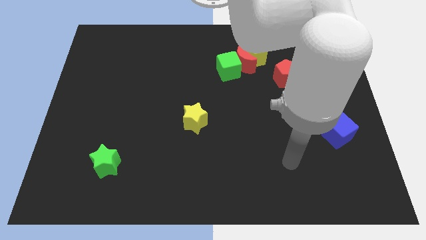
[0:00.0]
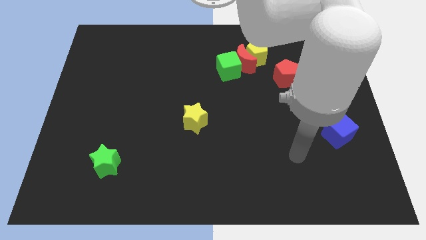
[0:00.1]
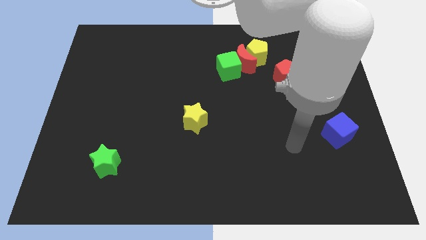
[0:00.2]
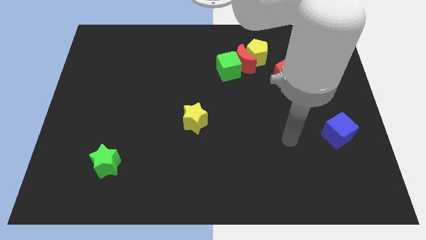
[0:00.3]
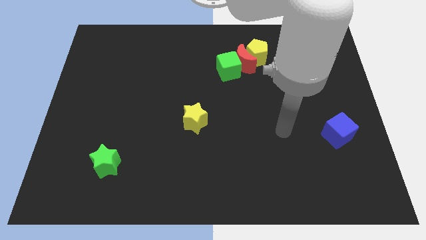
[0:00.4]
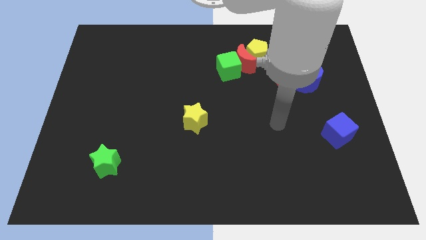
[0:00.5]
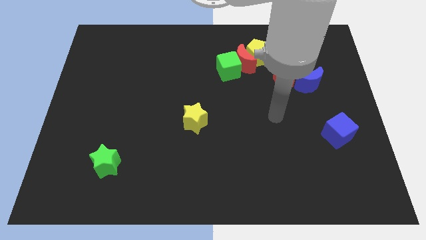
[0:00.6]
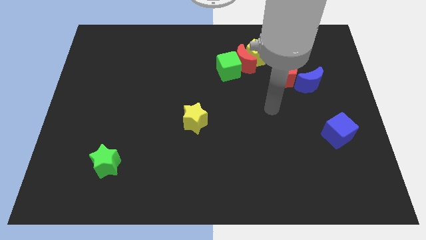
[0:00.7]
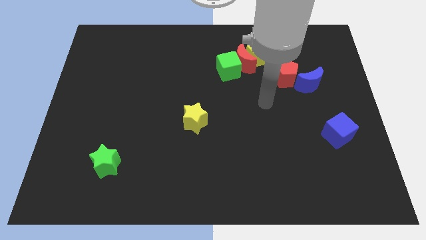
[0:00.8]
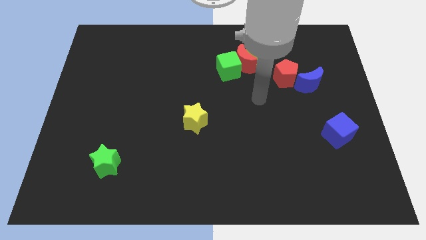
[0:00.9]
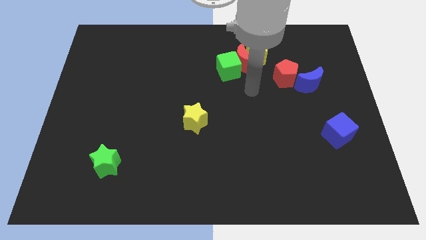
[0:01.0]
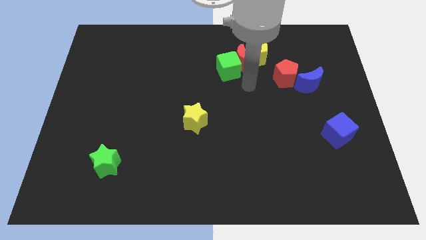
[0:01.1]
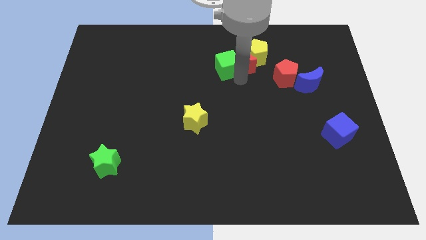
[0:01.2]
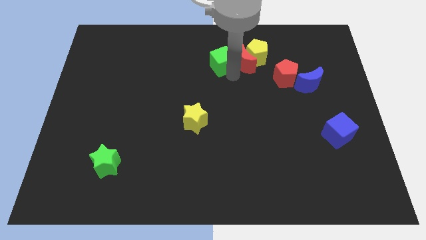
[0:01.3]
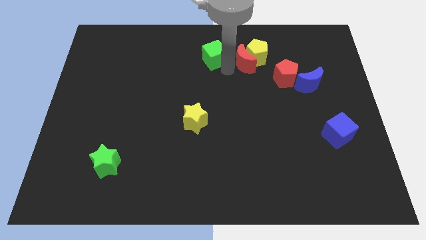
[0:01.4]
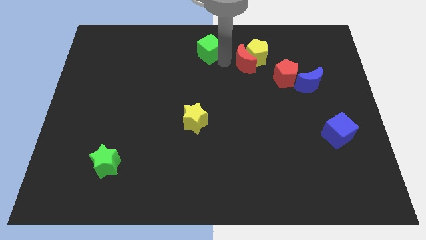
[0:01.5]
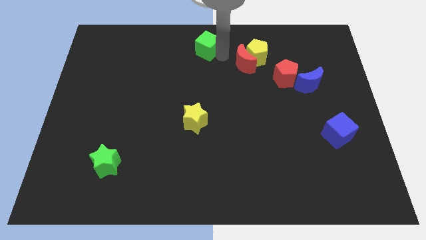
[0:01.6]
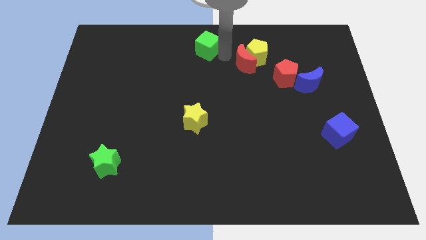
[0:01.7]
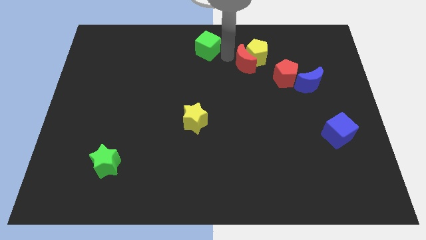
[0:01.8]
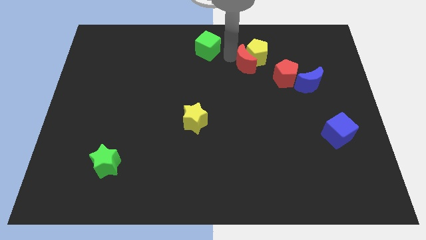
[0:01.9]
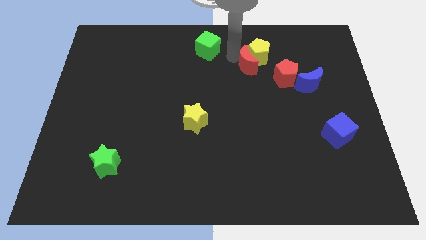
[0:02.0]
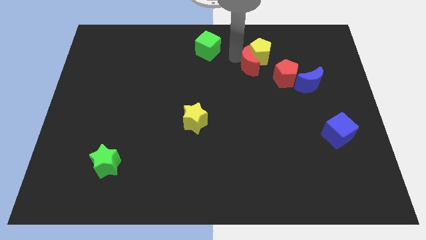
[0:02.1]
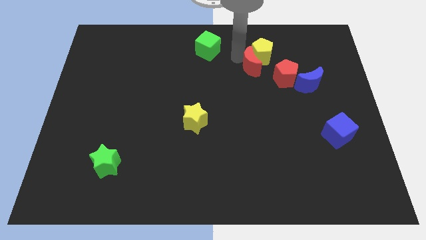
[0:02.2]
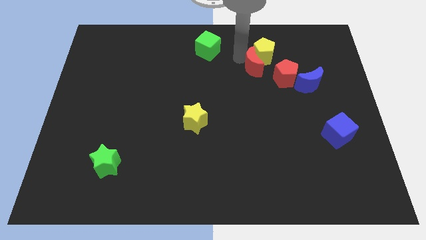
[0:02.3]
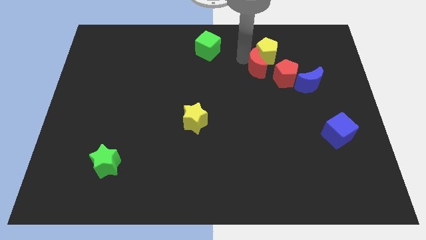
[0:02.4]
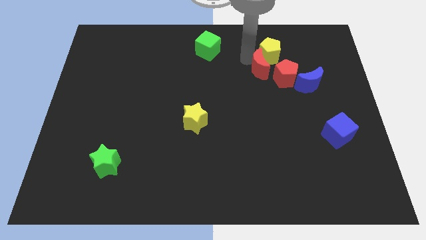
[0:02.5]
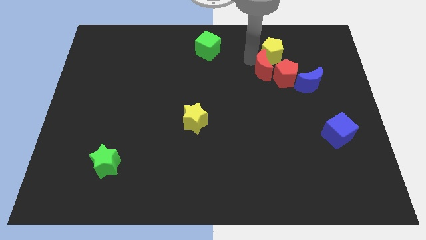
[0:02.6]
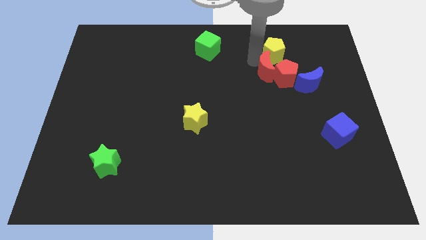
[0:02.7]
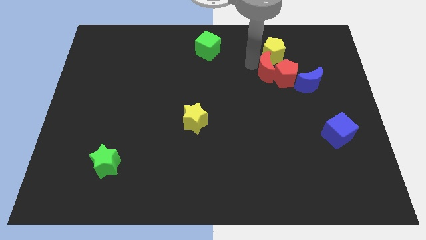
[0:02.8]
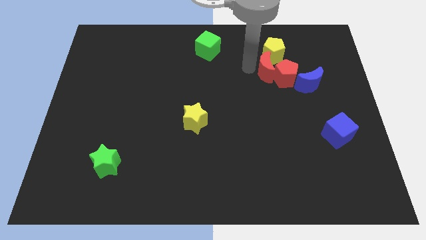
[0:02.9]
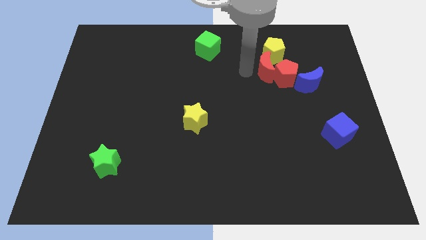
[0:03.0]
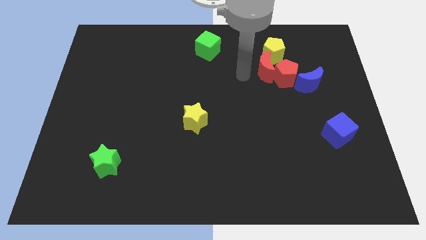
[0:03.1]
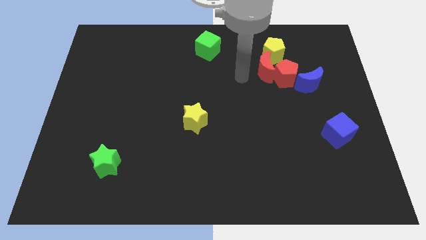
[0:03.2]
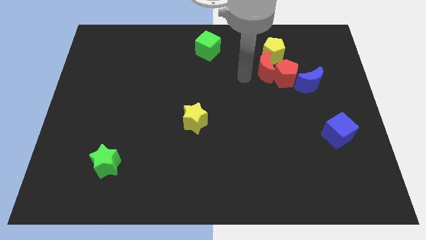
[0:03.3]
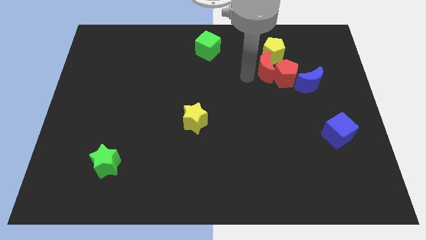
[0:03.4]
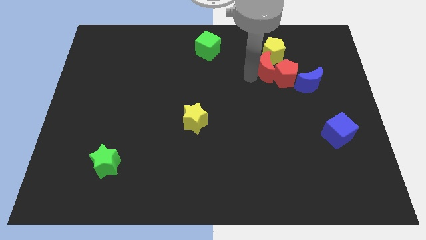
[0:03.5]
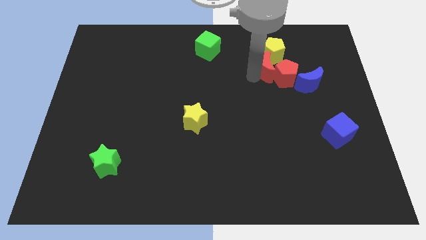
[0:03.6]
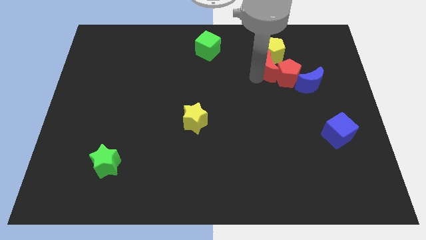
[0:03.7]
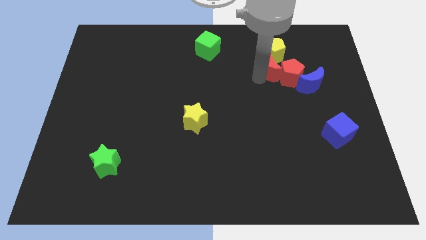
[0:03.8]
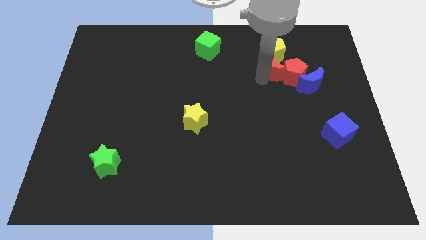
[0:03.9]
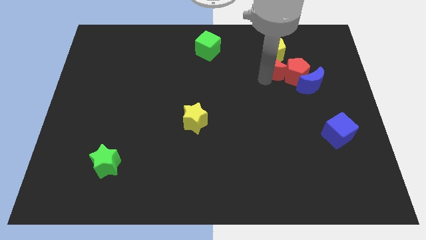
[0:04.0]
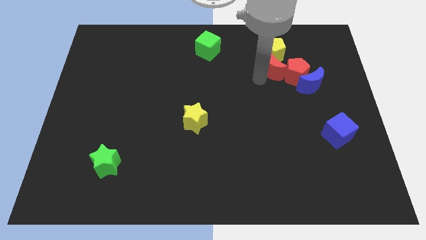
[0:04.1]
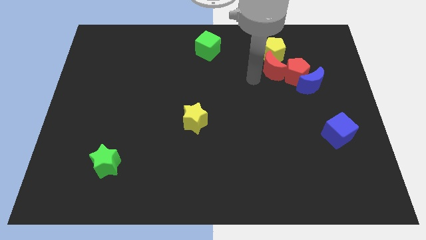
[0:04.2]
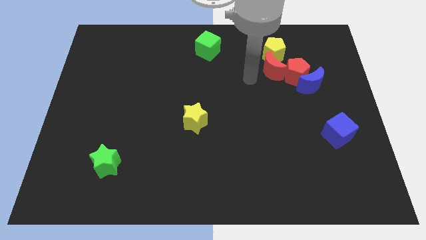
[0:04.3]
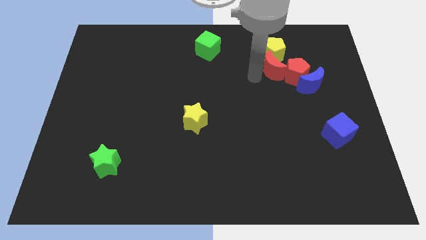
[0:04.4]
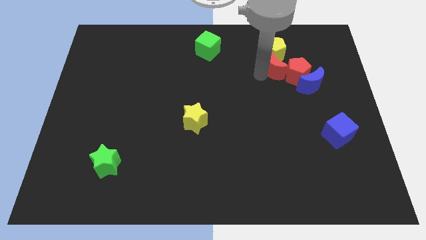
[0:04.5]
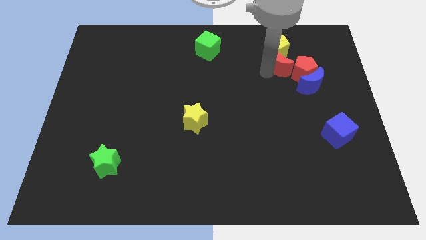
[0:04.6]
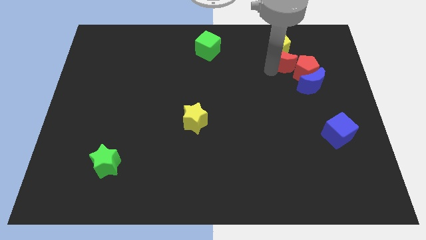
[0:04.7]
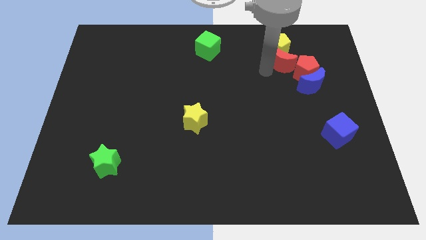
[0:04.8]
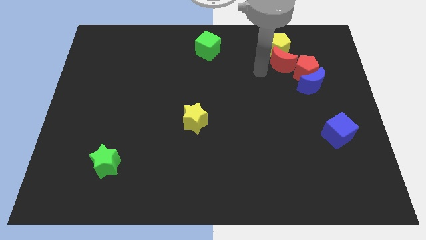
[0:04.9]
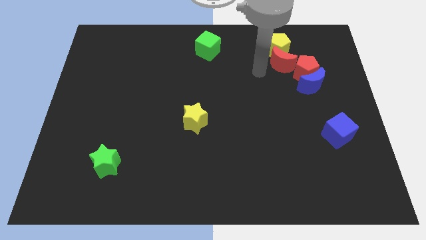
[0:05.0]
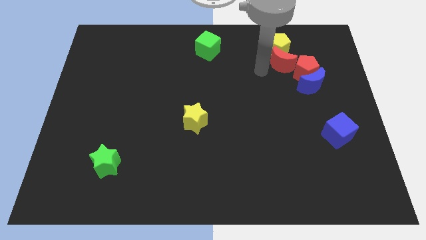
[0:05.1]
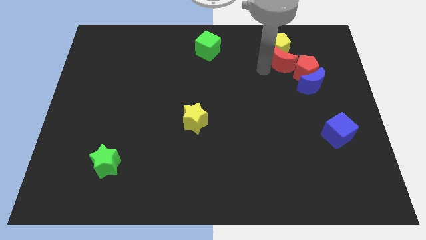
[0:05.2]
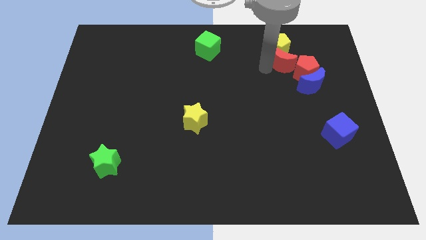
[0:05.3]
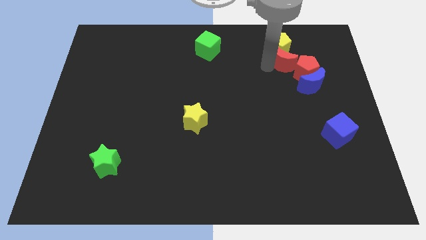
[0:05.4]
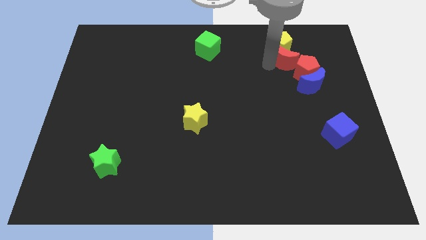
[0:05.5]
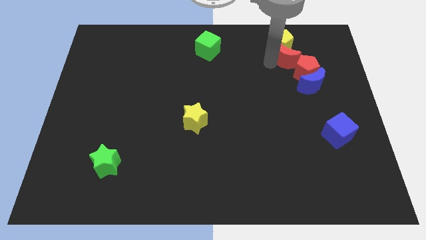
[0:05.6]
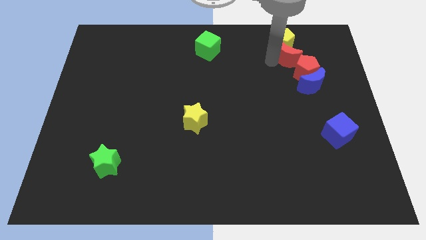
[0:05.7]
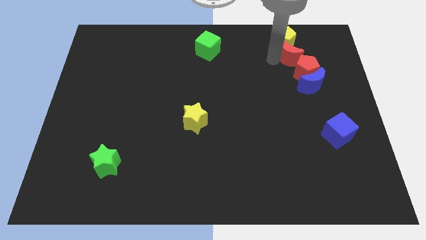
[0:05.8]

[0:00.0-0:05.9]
push the red moon to the top of the blue moon
